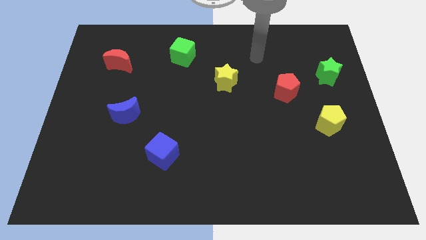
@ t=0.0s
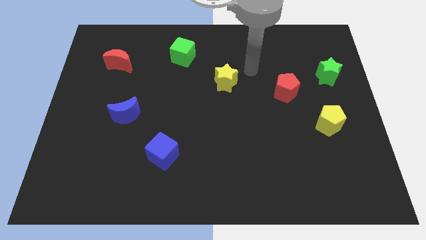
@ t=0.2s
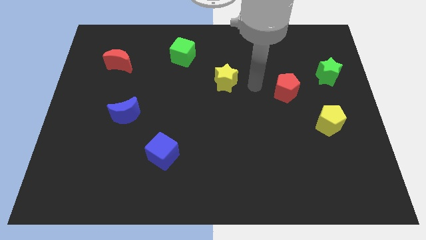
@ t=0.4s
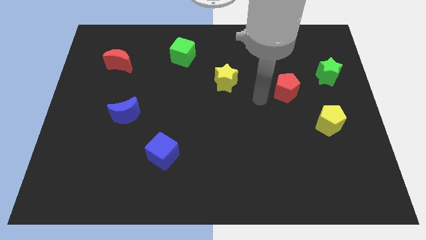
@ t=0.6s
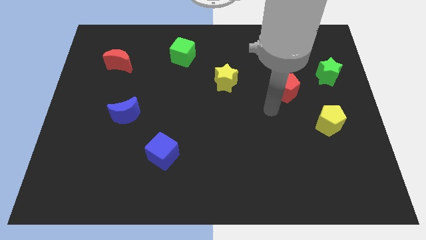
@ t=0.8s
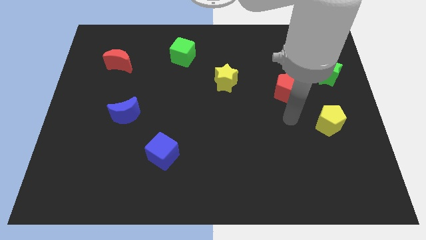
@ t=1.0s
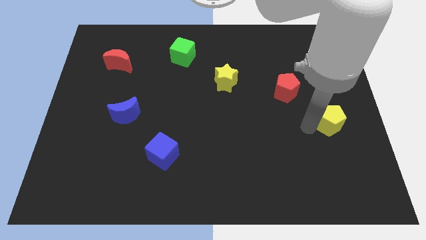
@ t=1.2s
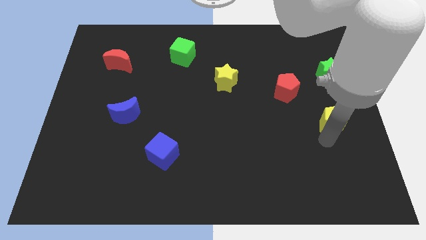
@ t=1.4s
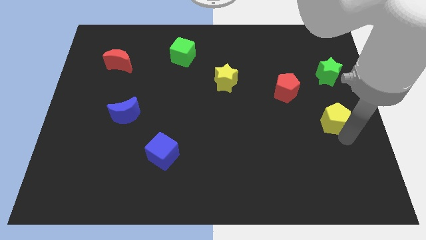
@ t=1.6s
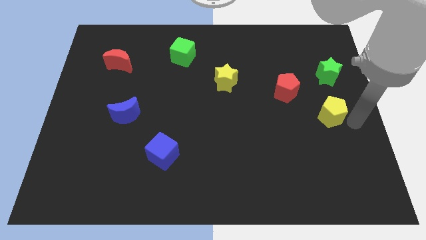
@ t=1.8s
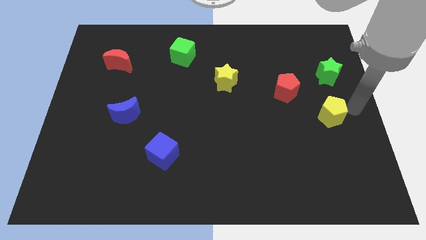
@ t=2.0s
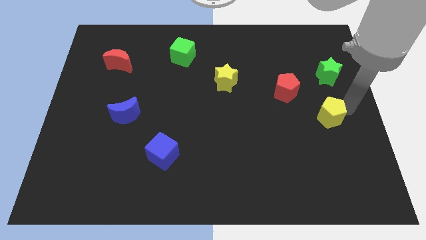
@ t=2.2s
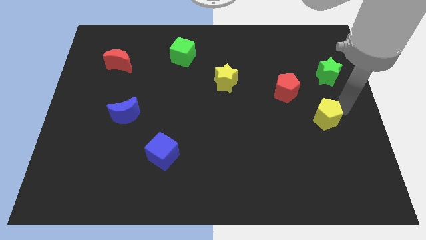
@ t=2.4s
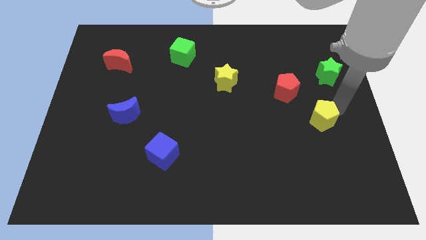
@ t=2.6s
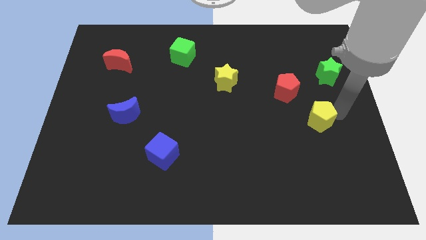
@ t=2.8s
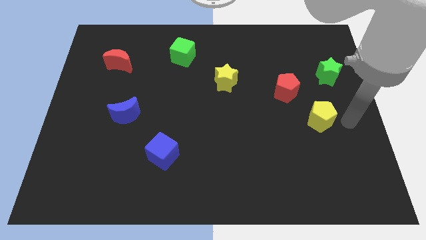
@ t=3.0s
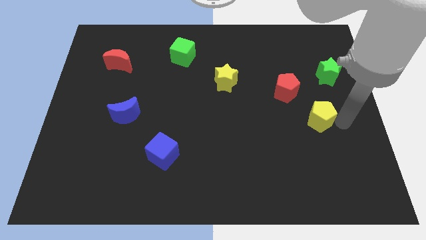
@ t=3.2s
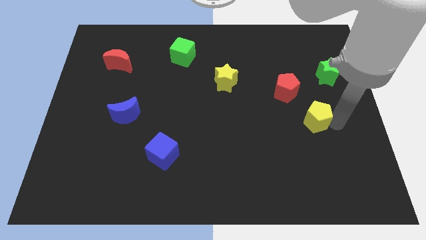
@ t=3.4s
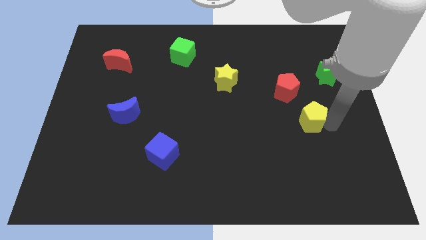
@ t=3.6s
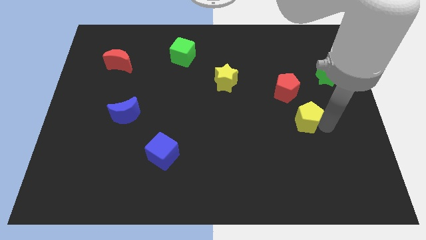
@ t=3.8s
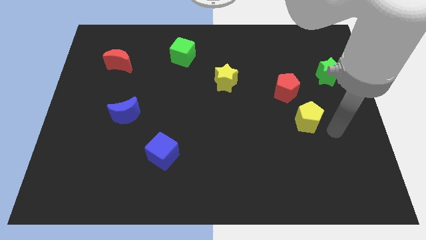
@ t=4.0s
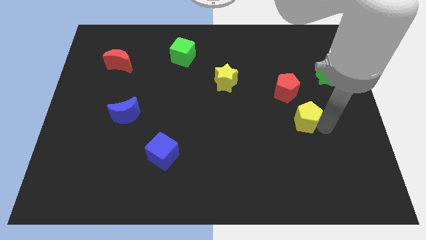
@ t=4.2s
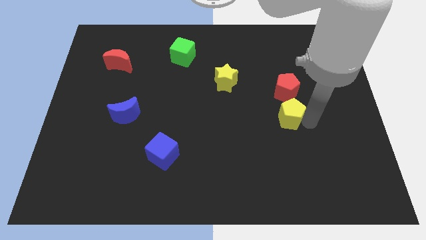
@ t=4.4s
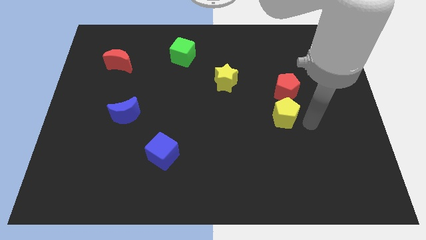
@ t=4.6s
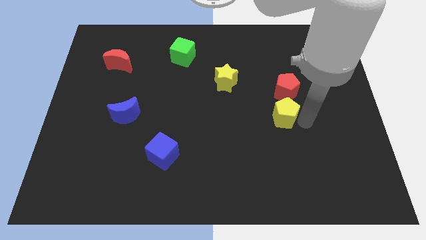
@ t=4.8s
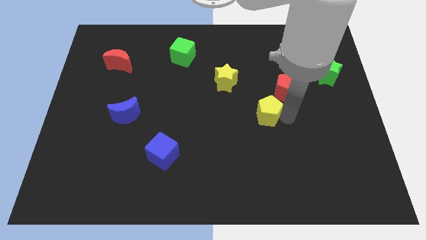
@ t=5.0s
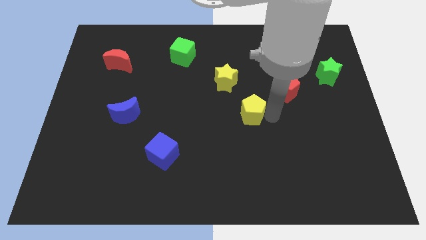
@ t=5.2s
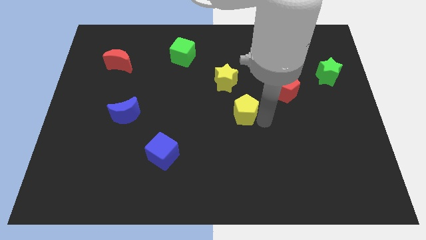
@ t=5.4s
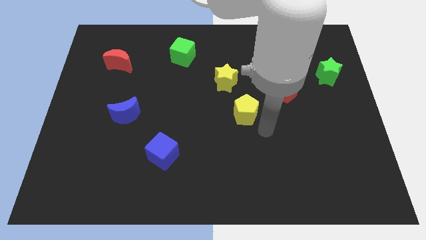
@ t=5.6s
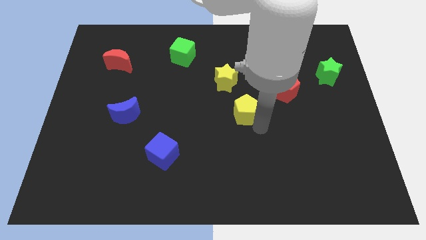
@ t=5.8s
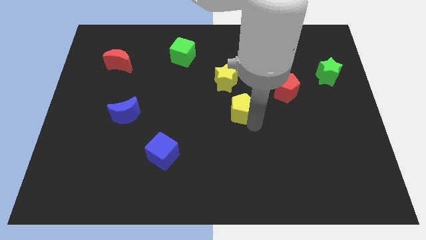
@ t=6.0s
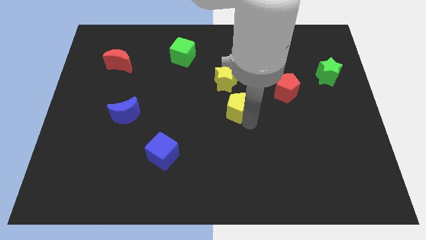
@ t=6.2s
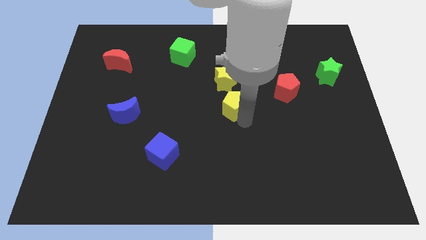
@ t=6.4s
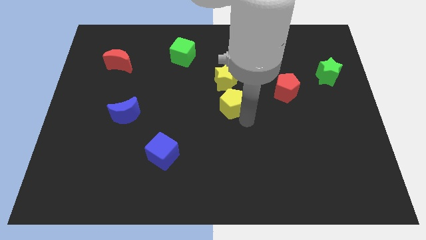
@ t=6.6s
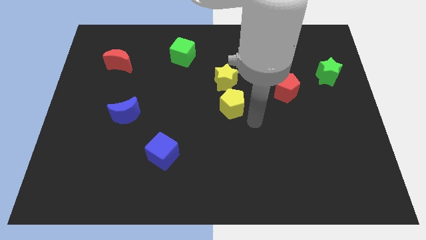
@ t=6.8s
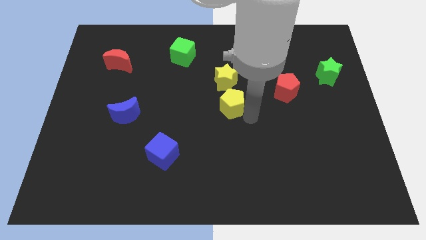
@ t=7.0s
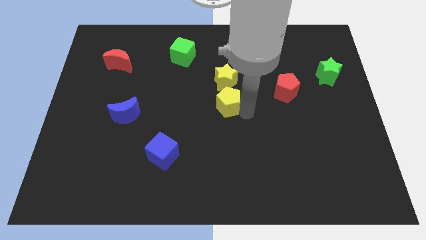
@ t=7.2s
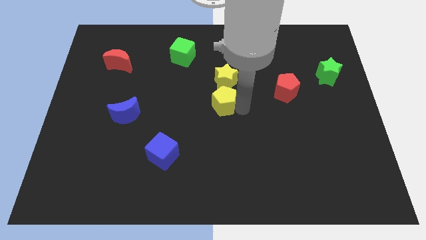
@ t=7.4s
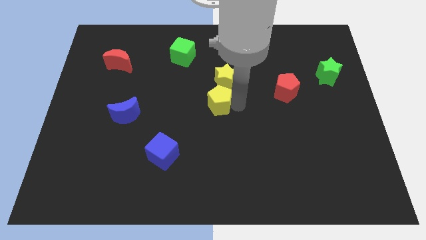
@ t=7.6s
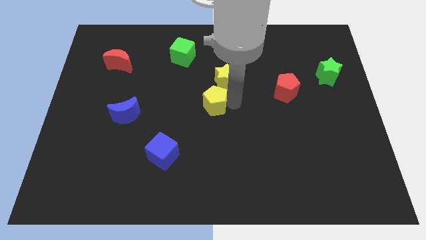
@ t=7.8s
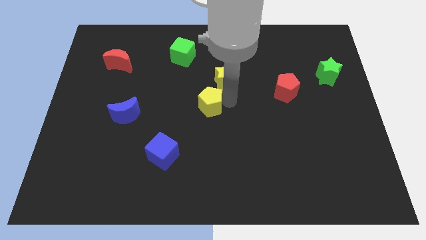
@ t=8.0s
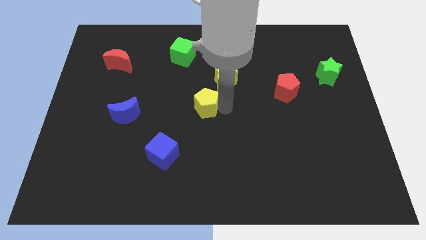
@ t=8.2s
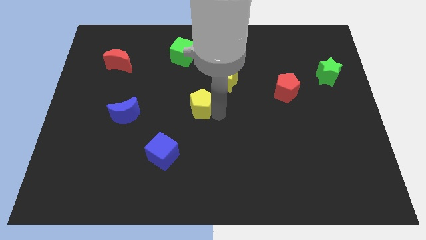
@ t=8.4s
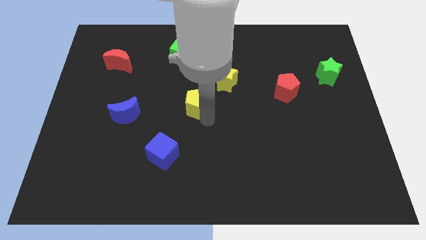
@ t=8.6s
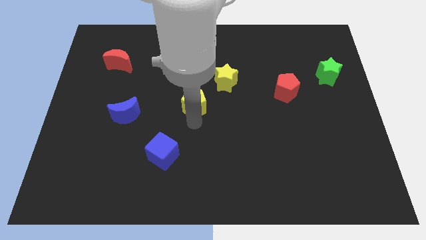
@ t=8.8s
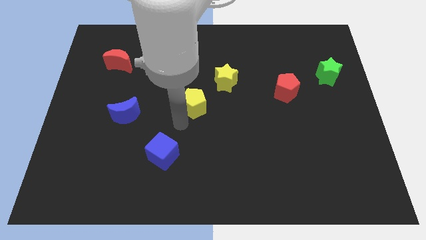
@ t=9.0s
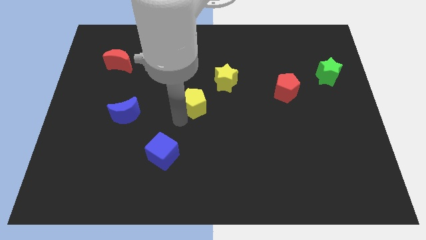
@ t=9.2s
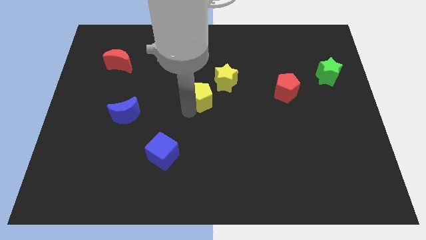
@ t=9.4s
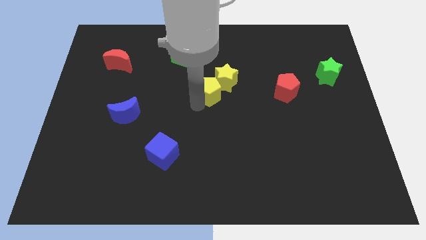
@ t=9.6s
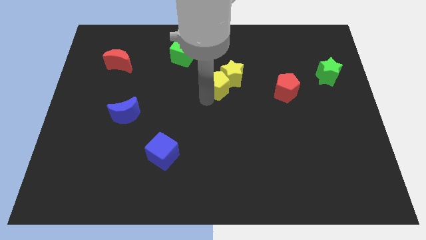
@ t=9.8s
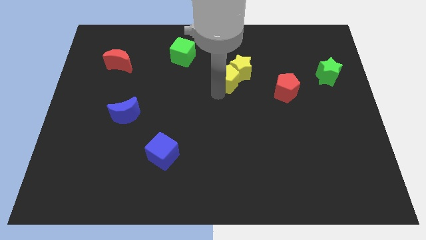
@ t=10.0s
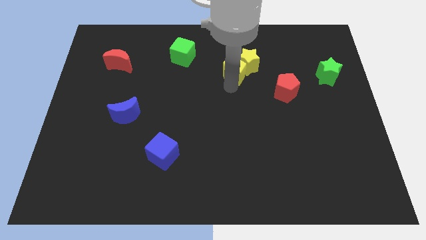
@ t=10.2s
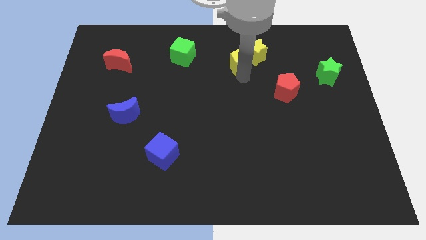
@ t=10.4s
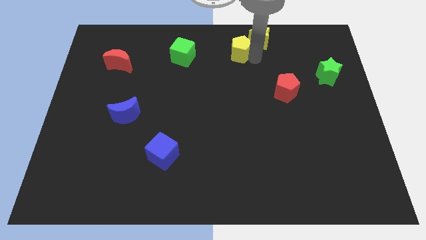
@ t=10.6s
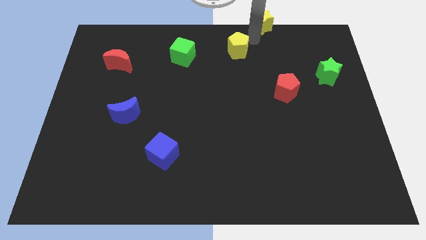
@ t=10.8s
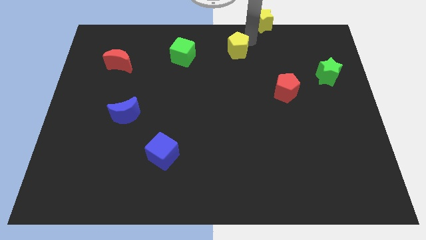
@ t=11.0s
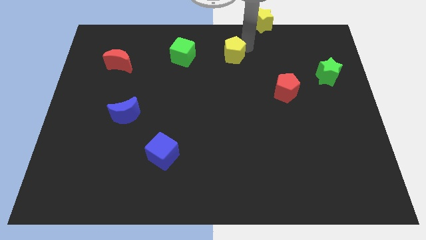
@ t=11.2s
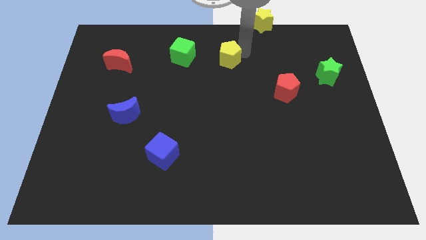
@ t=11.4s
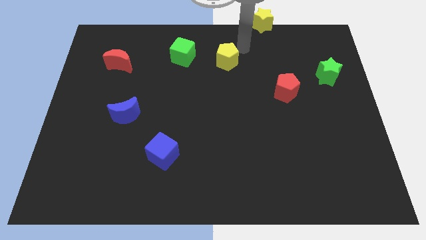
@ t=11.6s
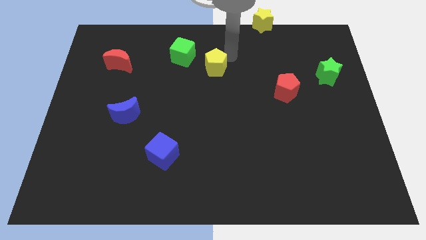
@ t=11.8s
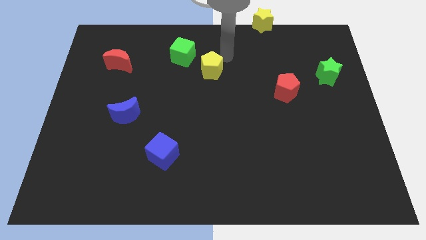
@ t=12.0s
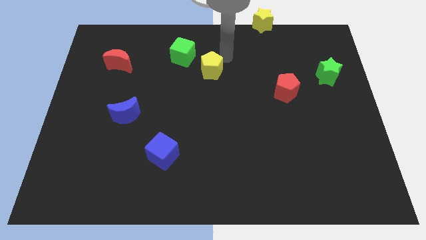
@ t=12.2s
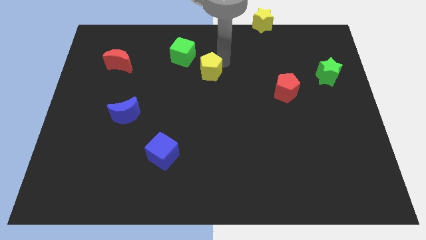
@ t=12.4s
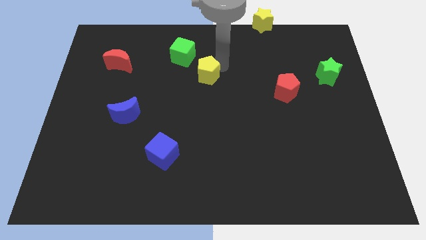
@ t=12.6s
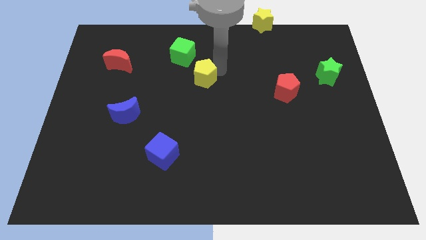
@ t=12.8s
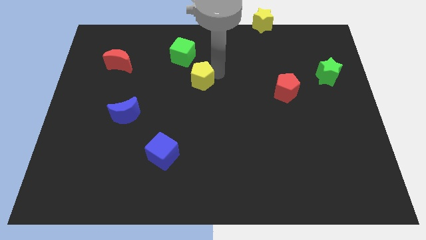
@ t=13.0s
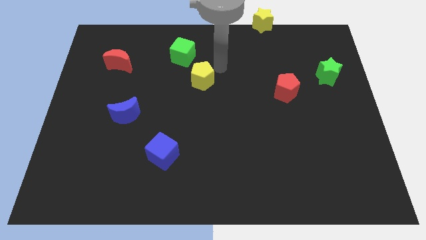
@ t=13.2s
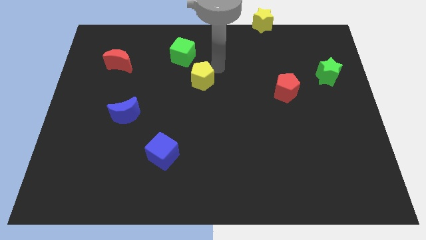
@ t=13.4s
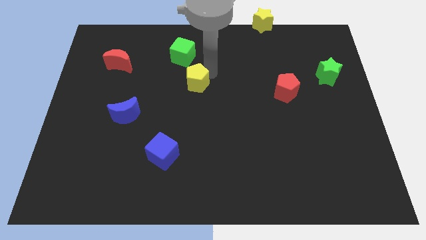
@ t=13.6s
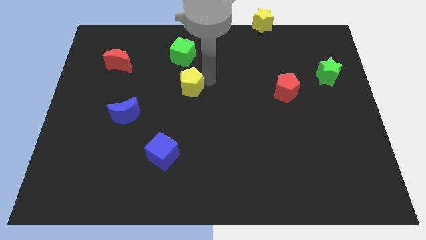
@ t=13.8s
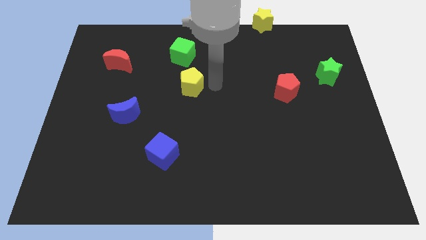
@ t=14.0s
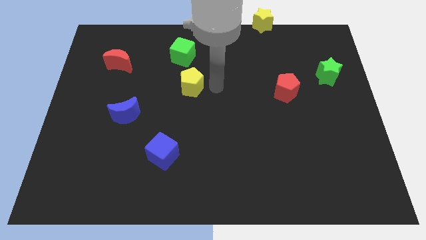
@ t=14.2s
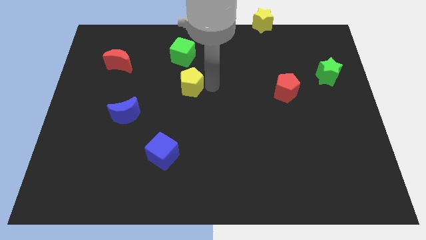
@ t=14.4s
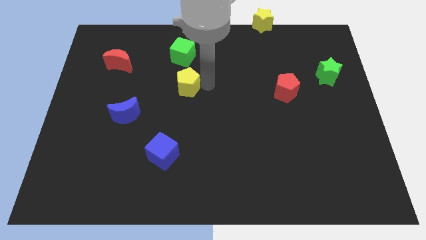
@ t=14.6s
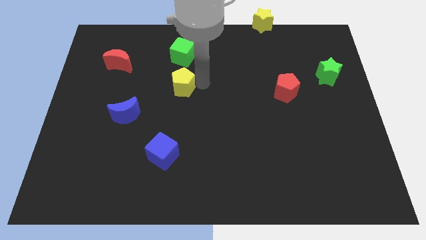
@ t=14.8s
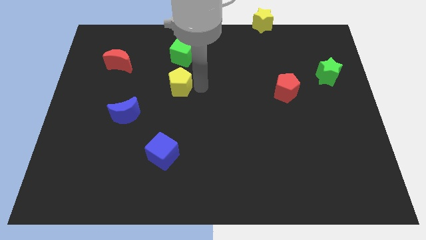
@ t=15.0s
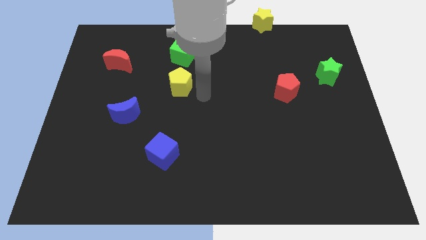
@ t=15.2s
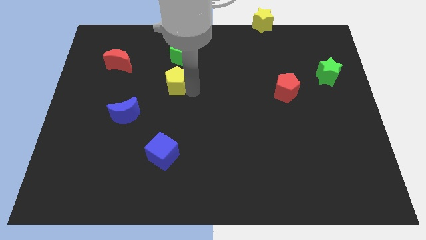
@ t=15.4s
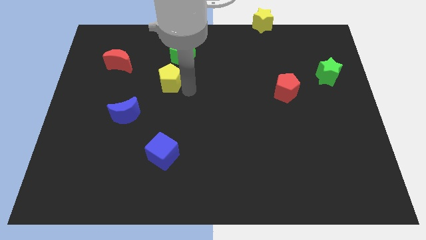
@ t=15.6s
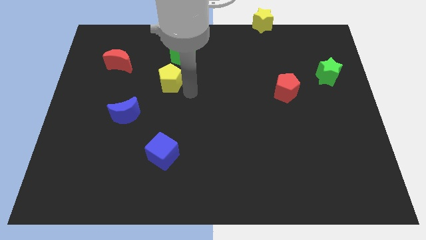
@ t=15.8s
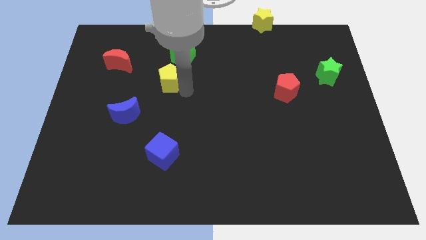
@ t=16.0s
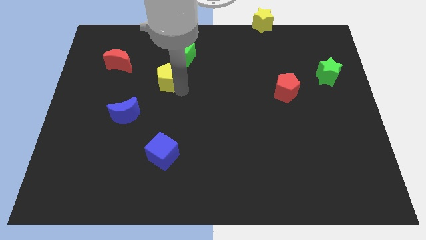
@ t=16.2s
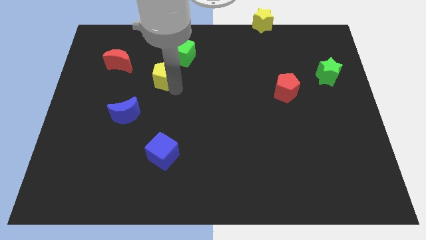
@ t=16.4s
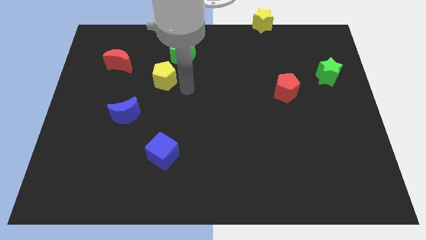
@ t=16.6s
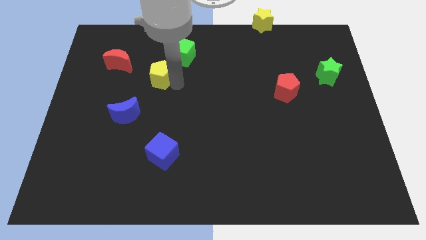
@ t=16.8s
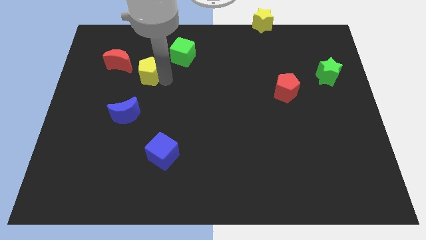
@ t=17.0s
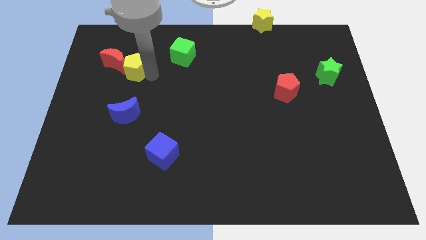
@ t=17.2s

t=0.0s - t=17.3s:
push the yellow pentagon close to the red moon
